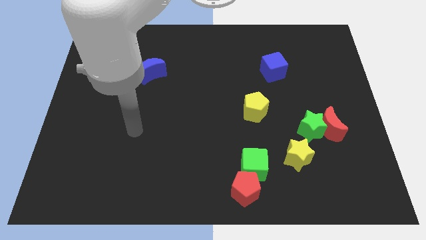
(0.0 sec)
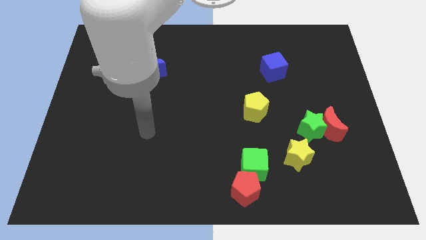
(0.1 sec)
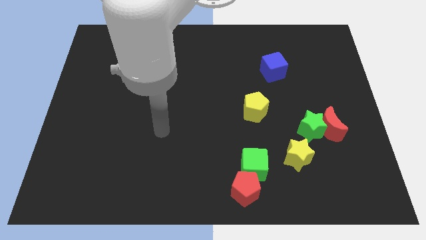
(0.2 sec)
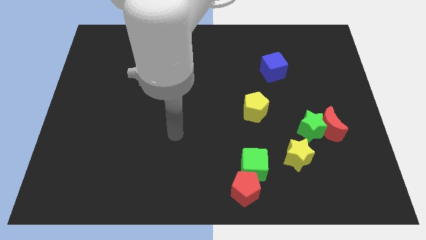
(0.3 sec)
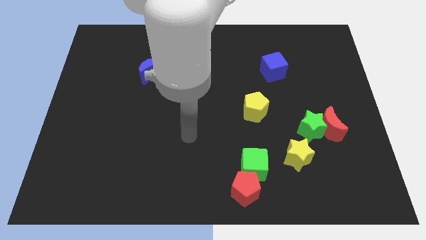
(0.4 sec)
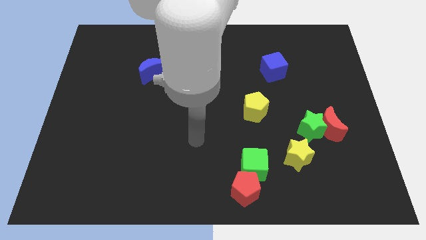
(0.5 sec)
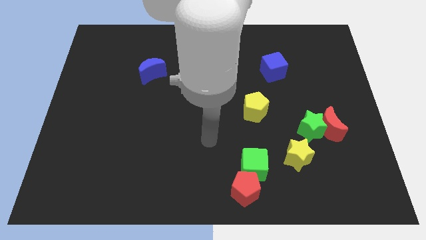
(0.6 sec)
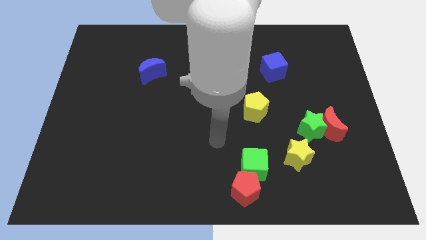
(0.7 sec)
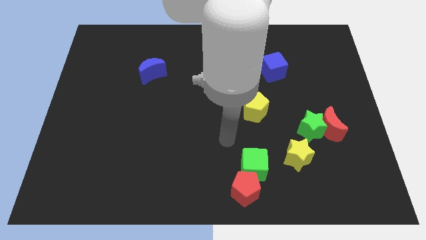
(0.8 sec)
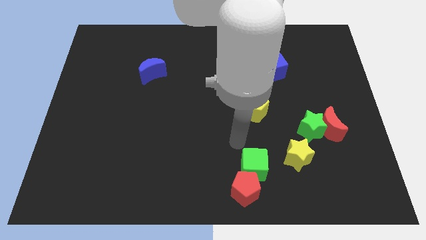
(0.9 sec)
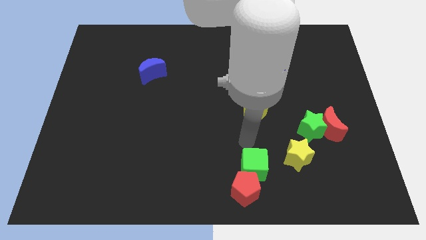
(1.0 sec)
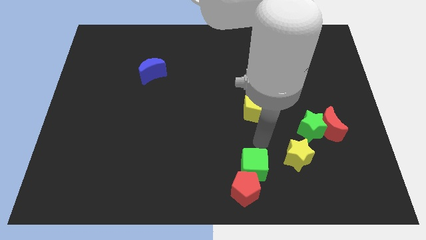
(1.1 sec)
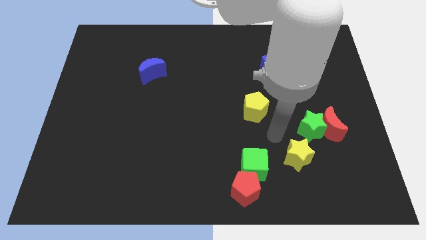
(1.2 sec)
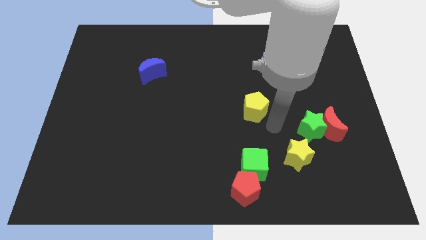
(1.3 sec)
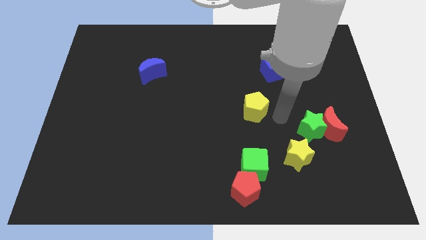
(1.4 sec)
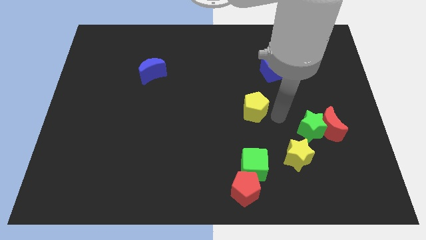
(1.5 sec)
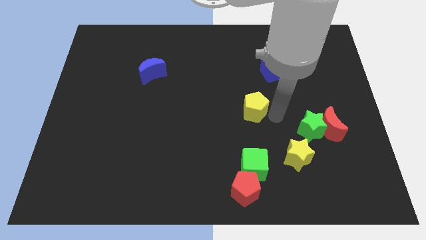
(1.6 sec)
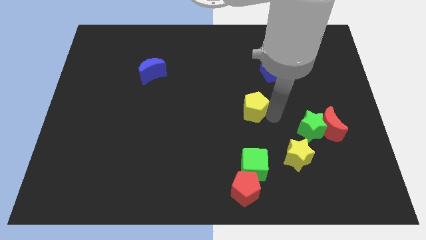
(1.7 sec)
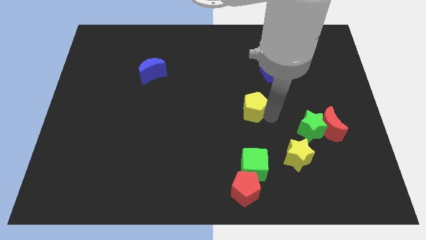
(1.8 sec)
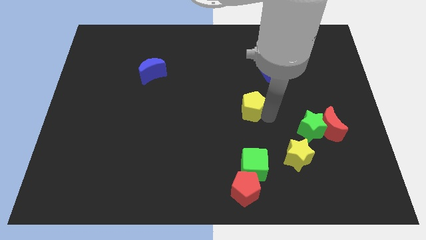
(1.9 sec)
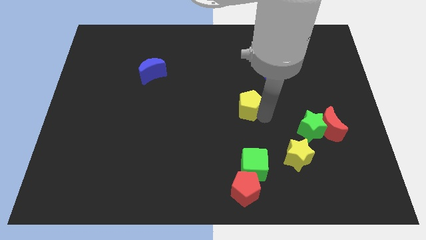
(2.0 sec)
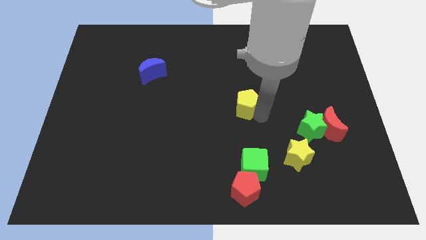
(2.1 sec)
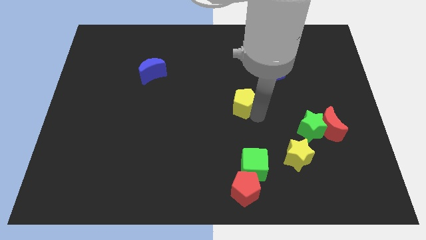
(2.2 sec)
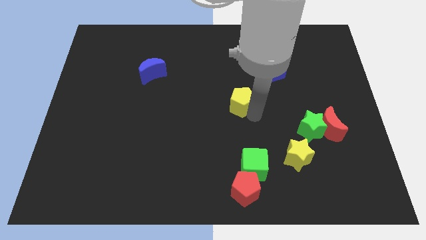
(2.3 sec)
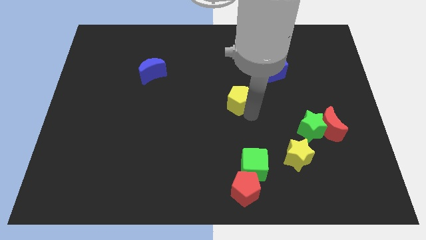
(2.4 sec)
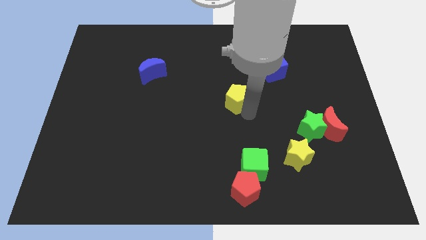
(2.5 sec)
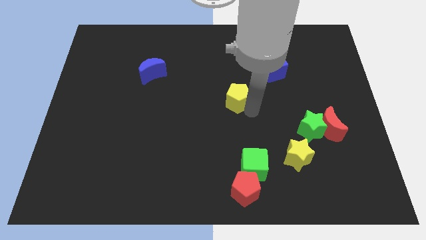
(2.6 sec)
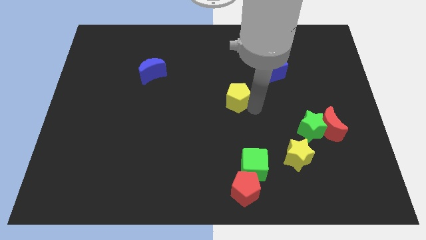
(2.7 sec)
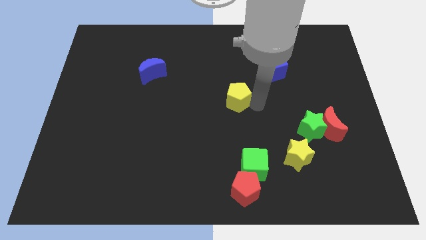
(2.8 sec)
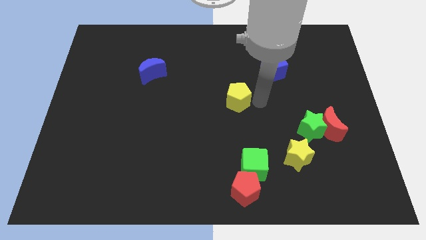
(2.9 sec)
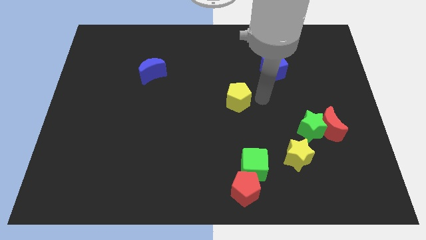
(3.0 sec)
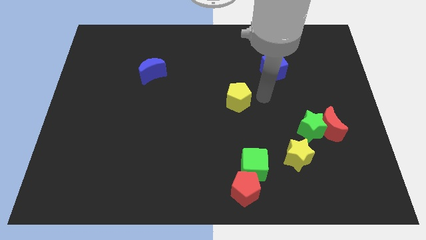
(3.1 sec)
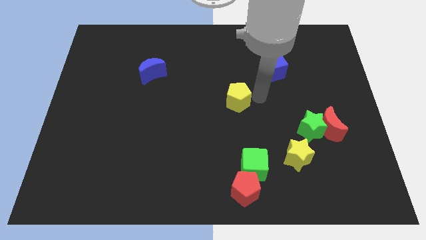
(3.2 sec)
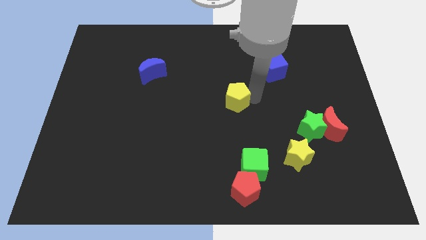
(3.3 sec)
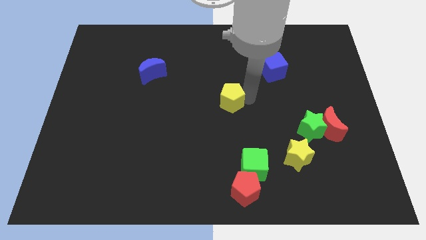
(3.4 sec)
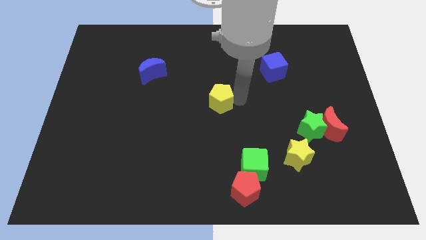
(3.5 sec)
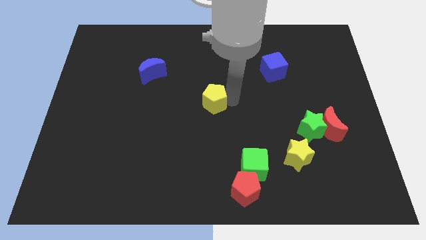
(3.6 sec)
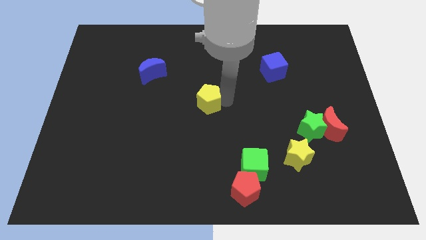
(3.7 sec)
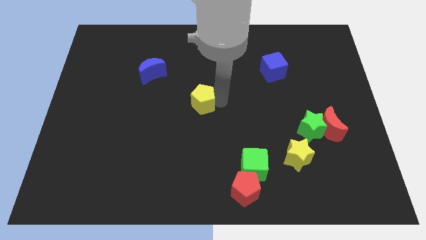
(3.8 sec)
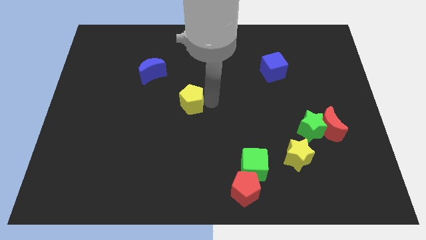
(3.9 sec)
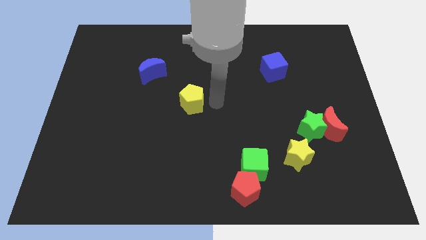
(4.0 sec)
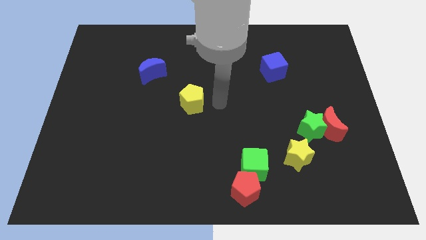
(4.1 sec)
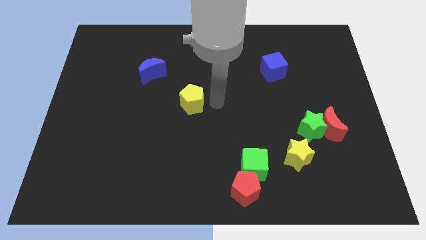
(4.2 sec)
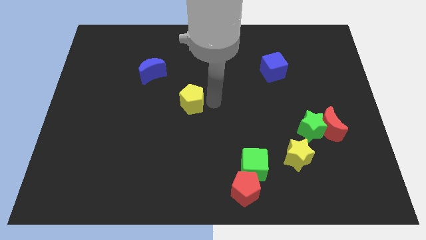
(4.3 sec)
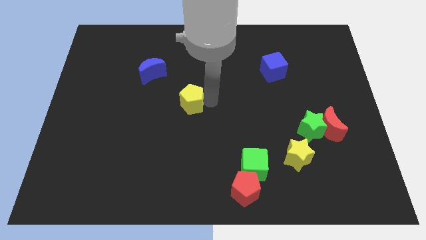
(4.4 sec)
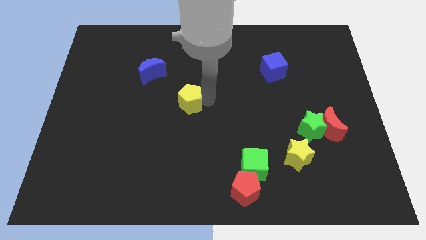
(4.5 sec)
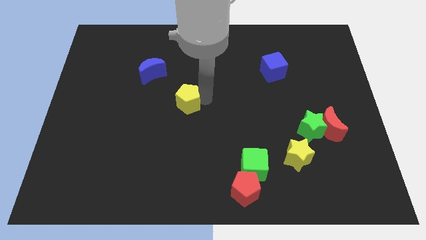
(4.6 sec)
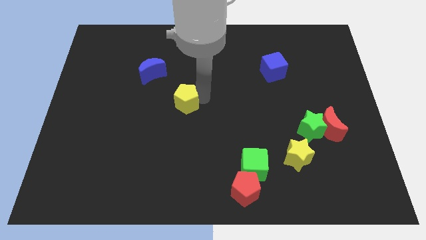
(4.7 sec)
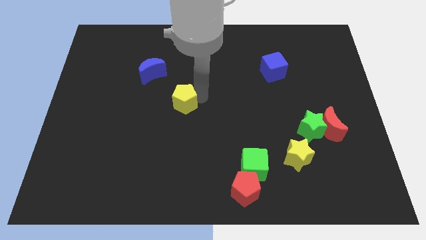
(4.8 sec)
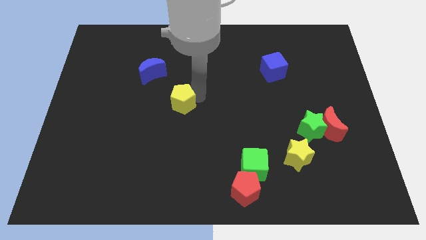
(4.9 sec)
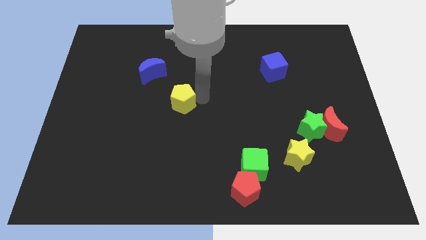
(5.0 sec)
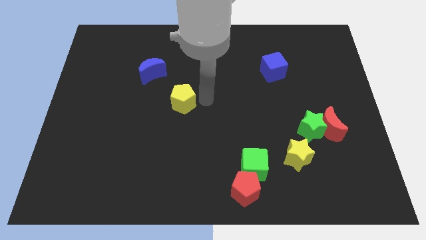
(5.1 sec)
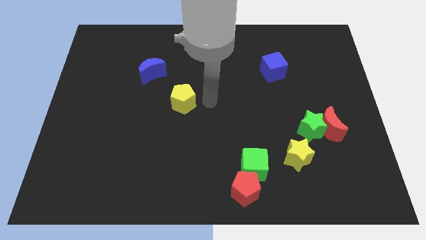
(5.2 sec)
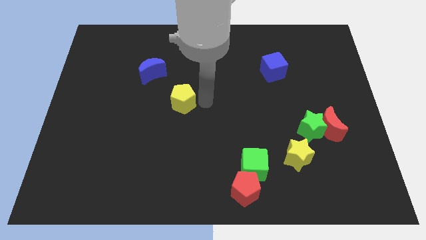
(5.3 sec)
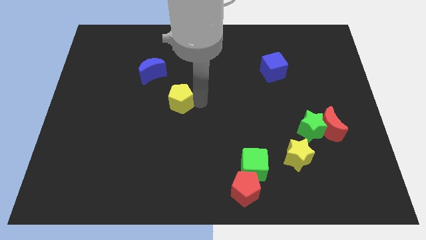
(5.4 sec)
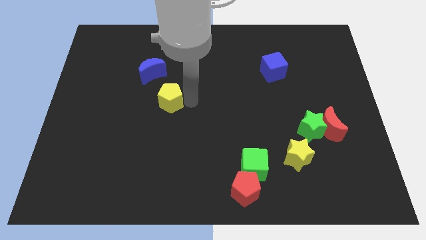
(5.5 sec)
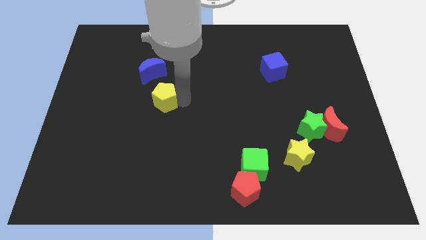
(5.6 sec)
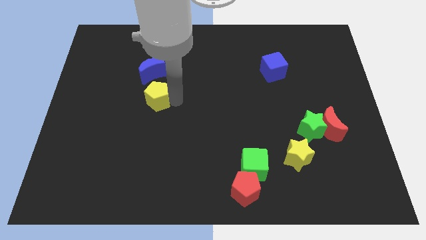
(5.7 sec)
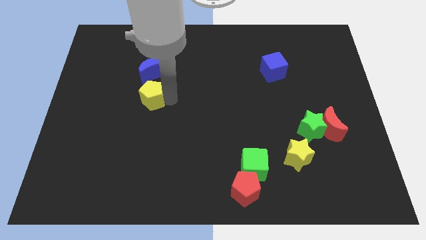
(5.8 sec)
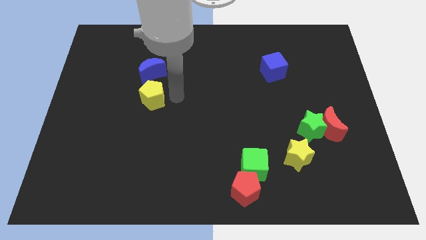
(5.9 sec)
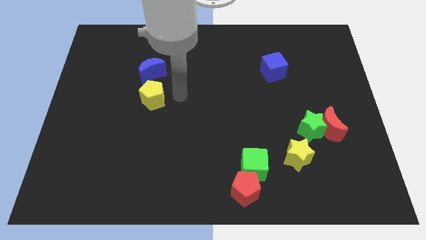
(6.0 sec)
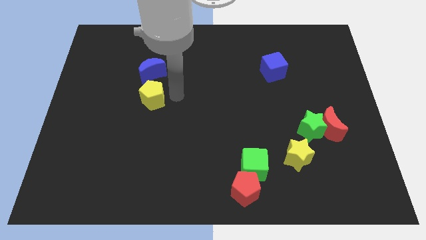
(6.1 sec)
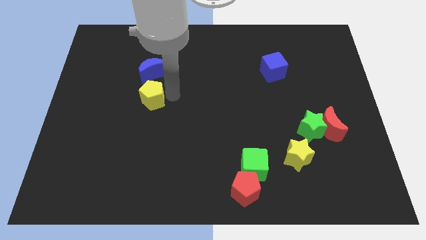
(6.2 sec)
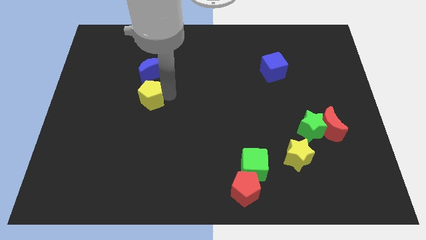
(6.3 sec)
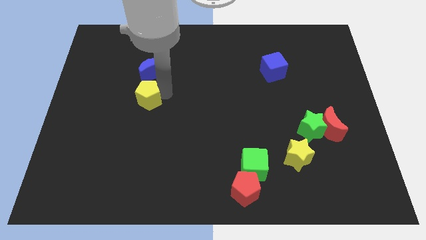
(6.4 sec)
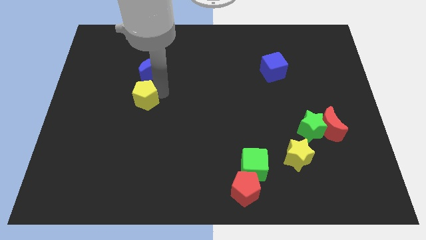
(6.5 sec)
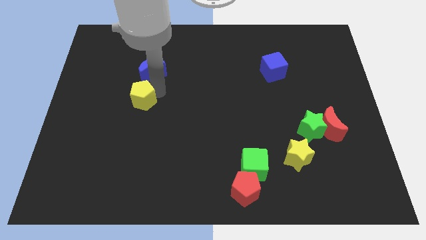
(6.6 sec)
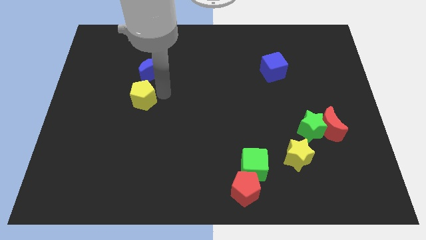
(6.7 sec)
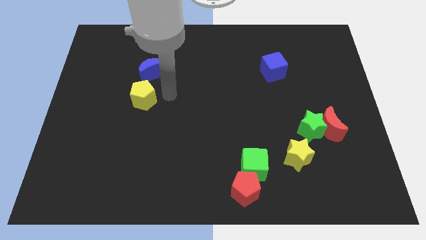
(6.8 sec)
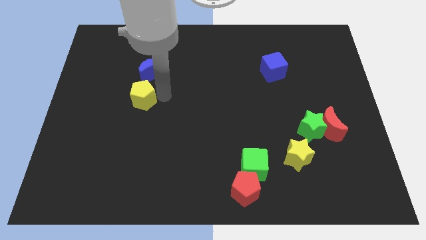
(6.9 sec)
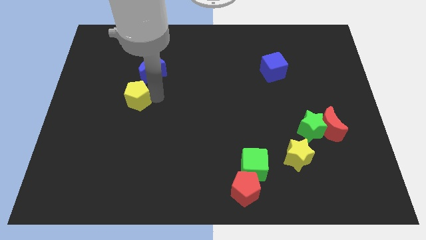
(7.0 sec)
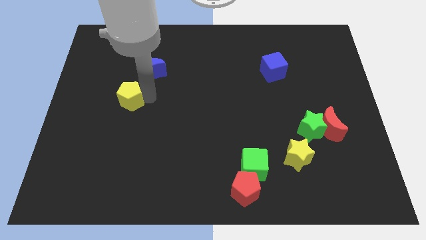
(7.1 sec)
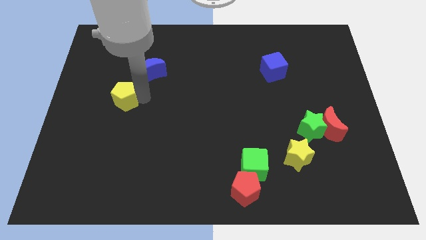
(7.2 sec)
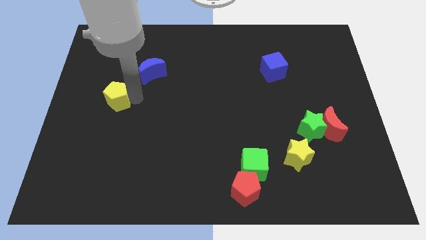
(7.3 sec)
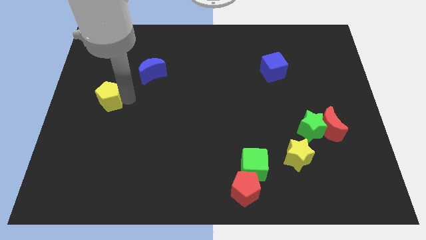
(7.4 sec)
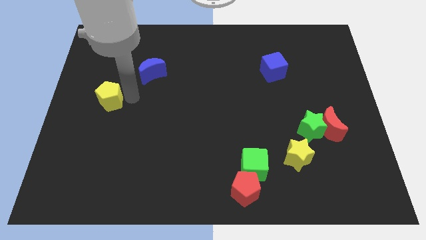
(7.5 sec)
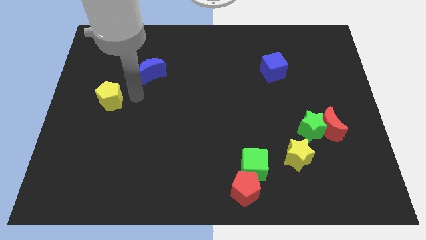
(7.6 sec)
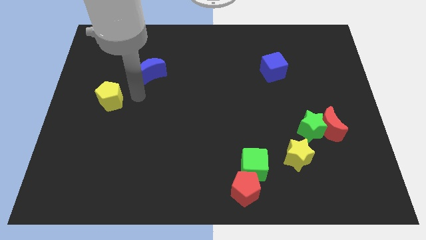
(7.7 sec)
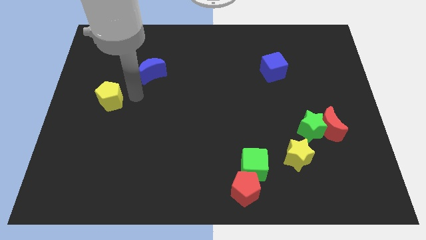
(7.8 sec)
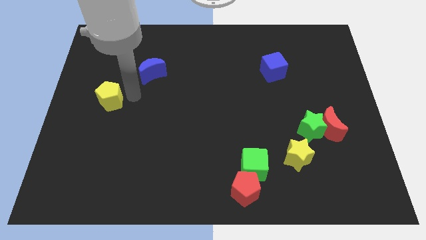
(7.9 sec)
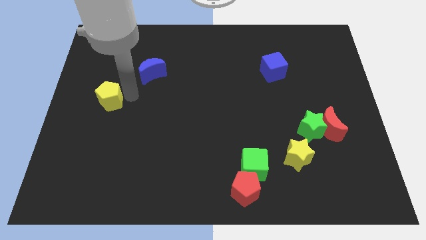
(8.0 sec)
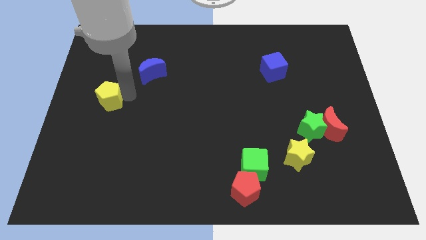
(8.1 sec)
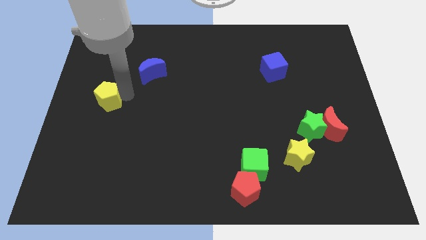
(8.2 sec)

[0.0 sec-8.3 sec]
push the yellow pentagon to the center left
